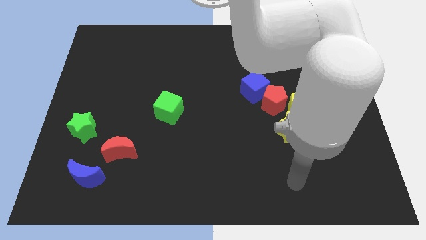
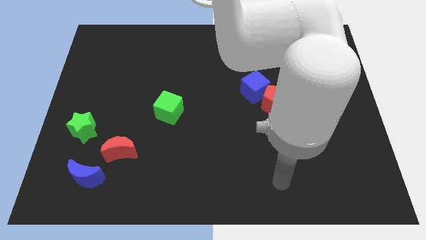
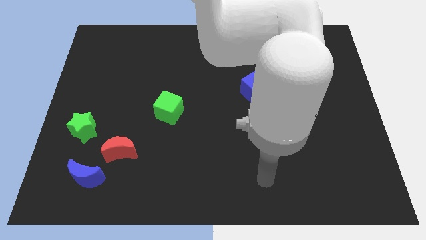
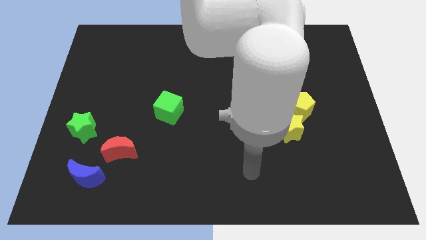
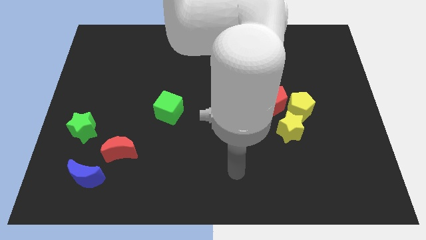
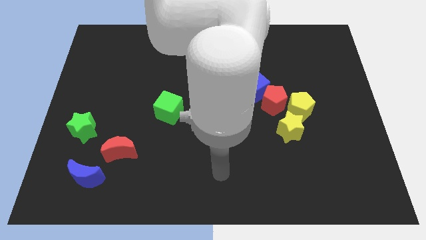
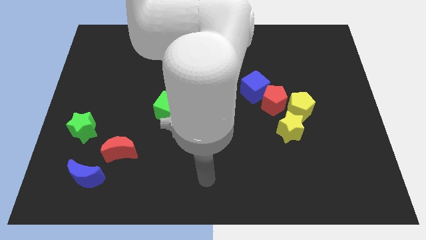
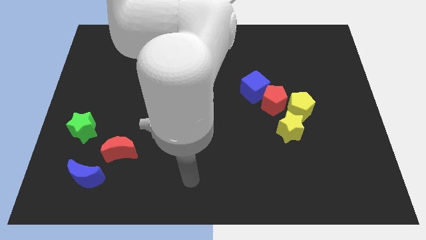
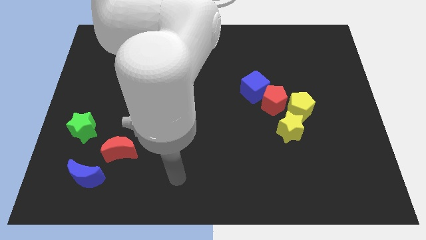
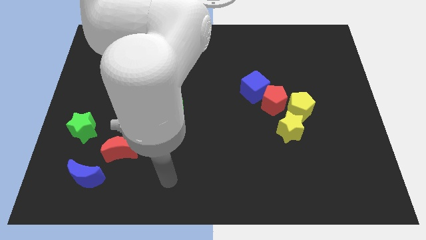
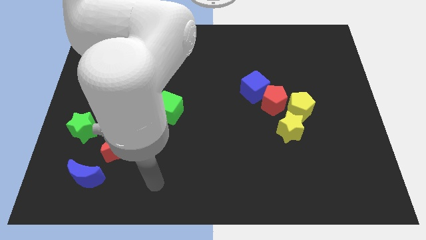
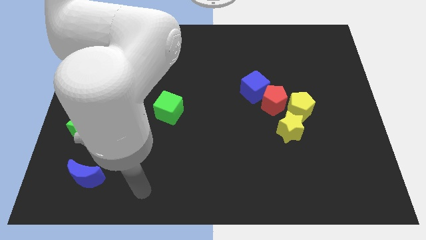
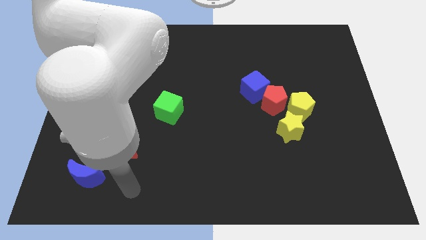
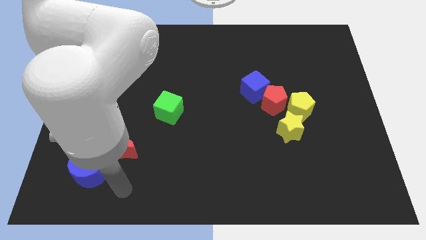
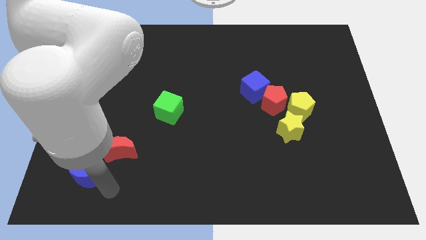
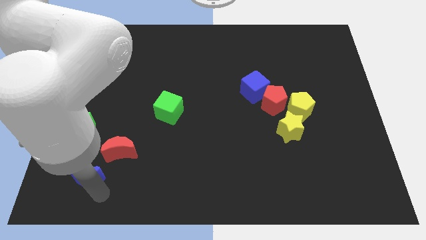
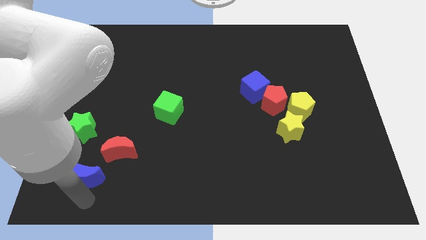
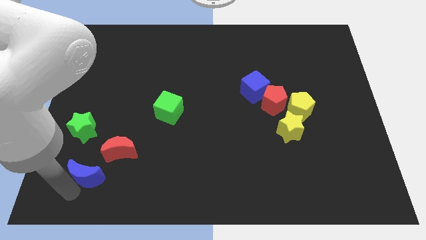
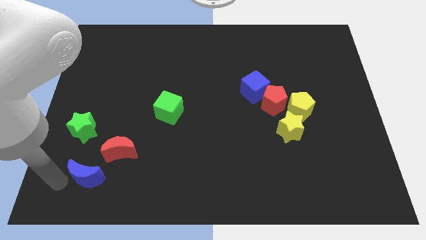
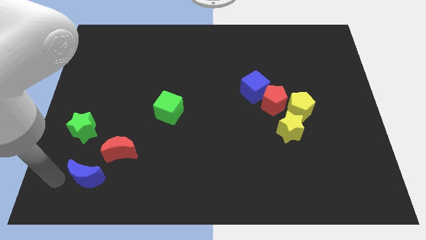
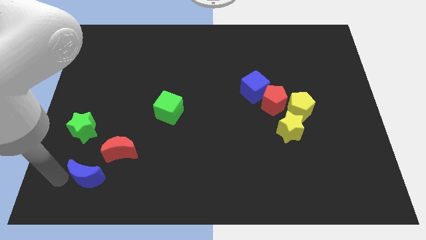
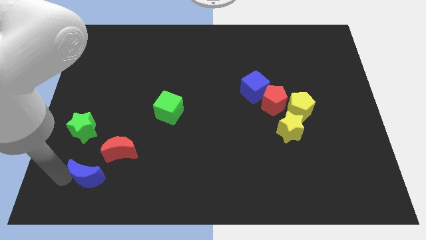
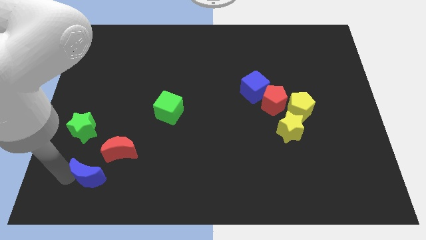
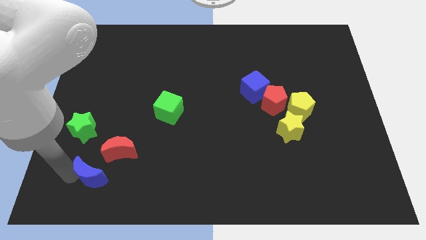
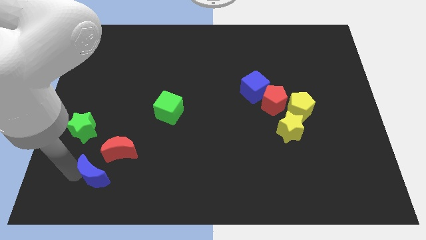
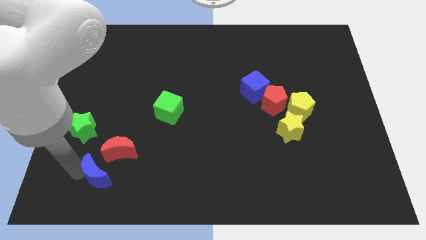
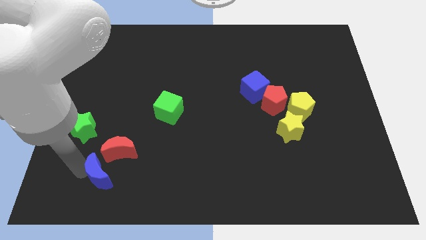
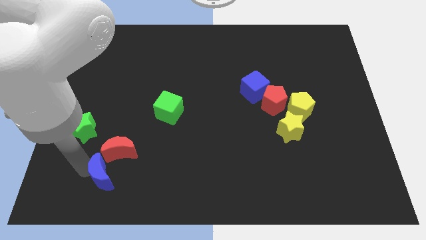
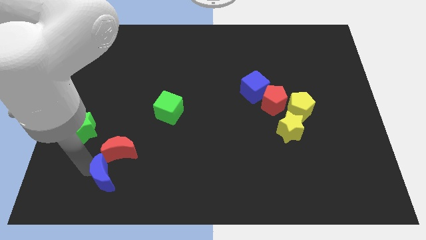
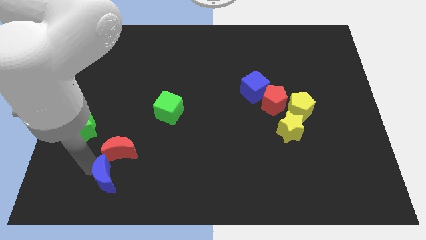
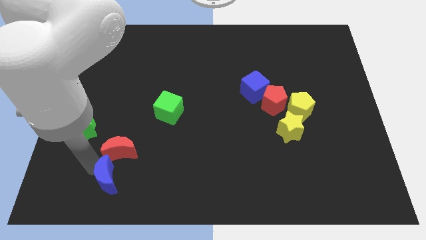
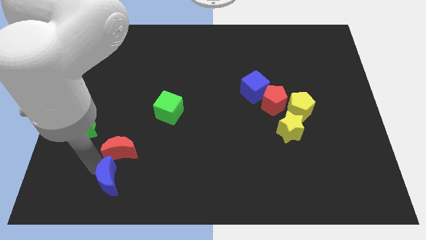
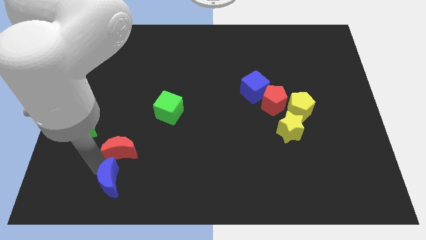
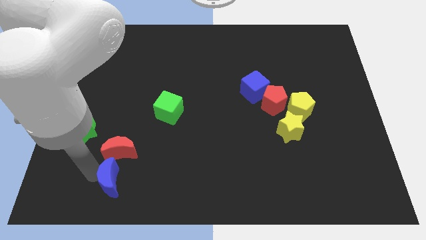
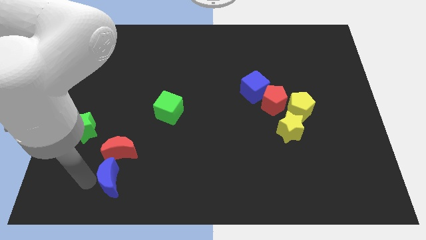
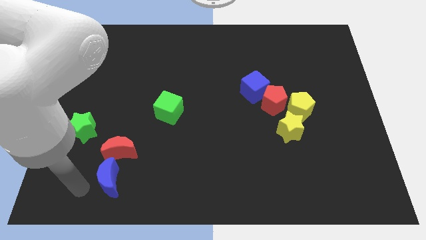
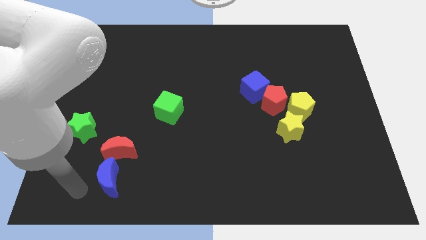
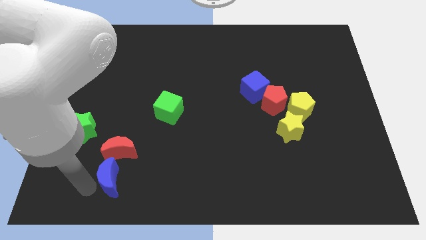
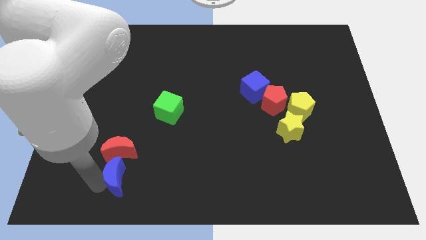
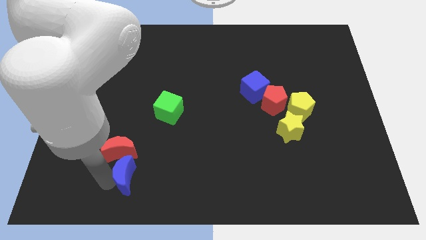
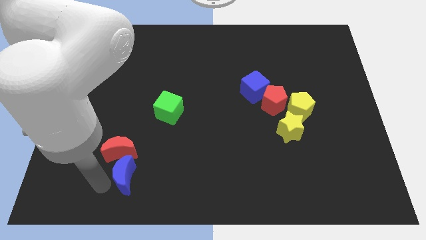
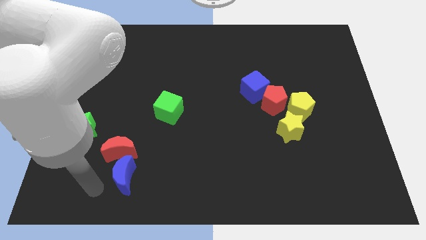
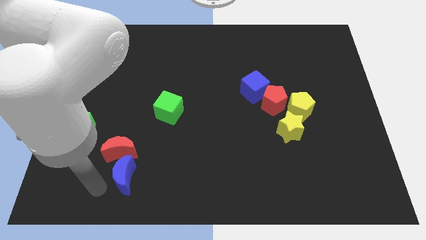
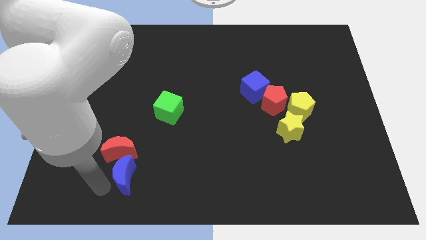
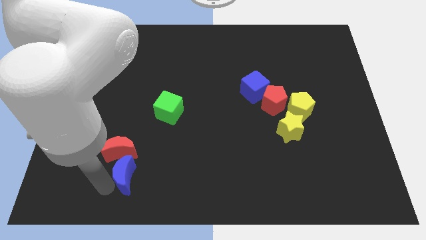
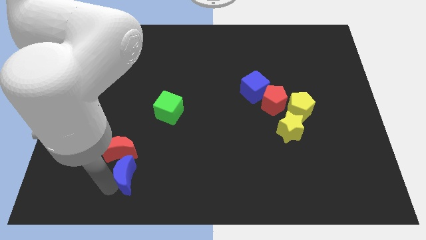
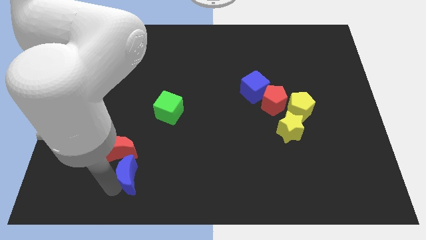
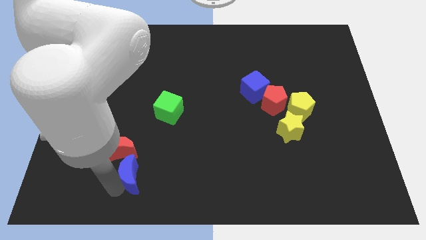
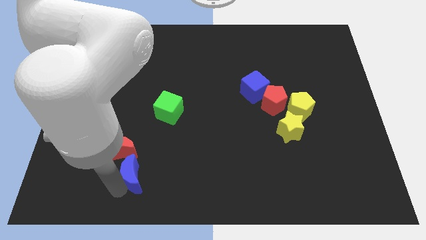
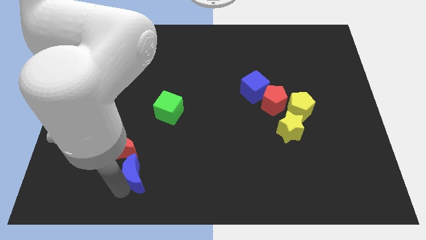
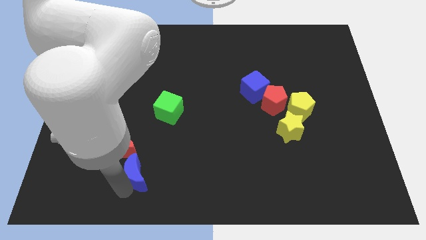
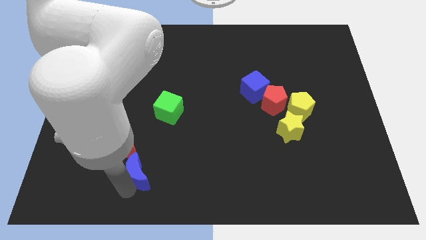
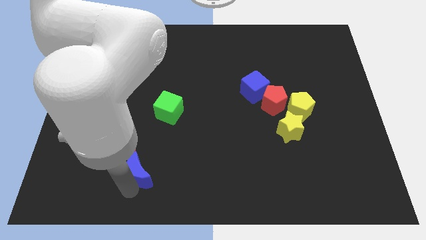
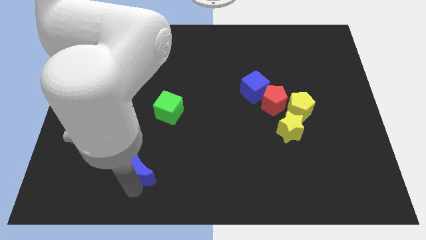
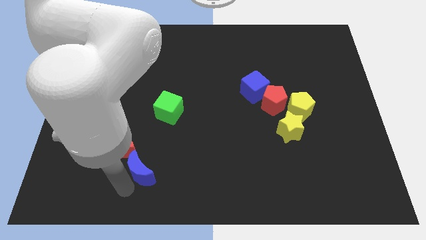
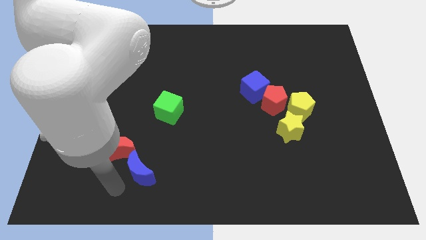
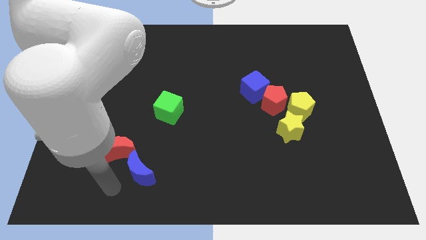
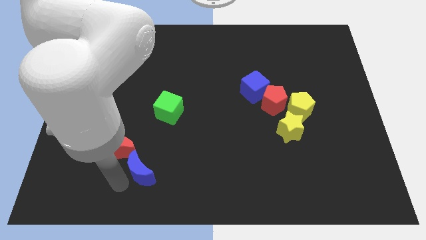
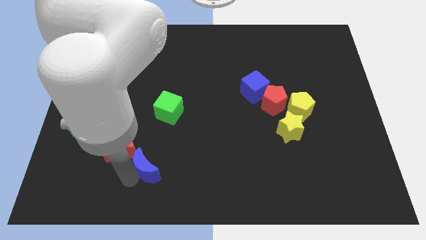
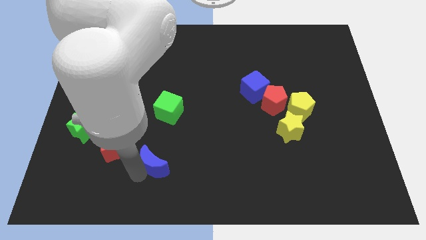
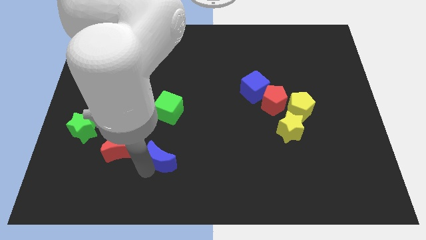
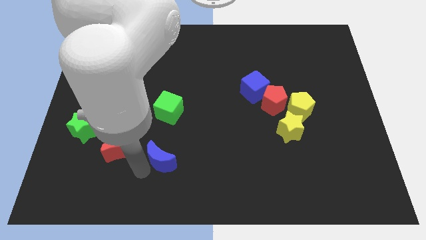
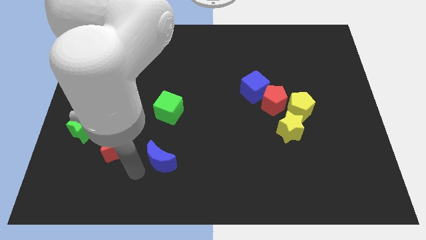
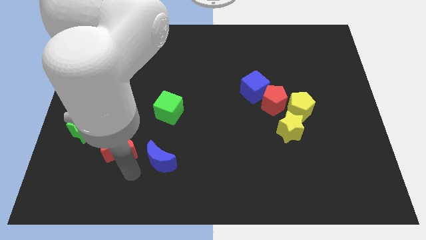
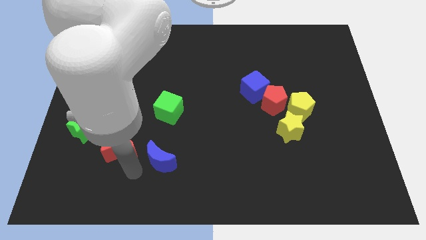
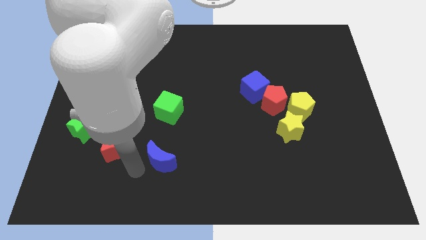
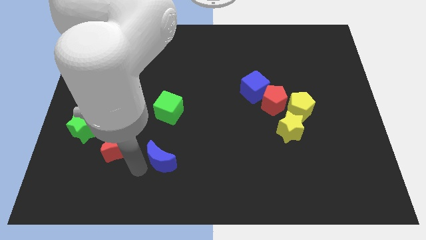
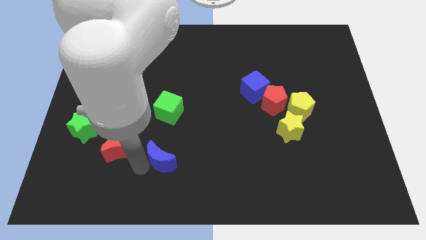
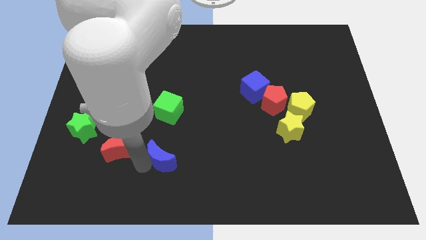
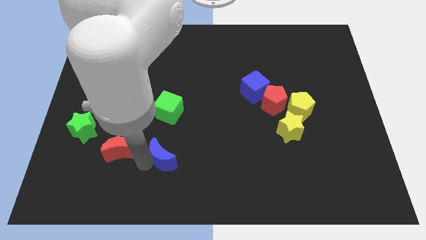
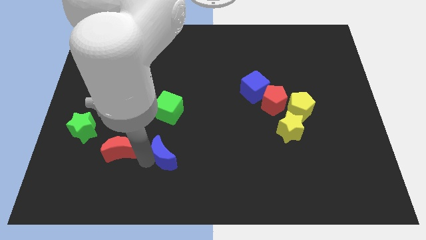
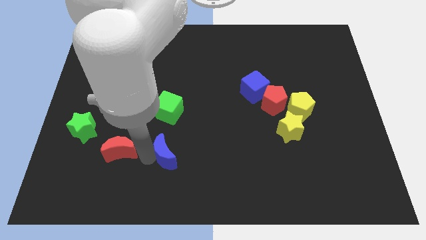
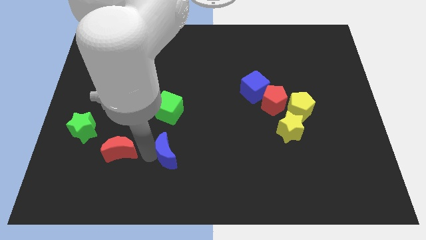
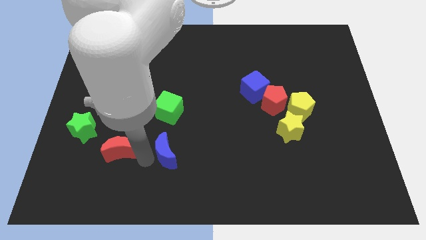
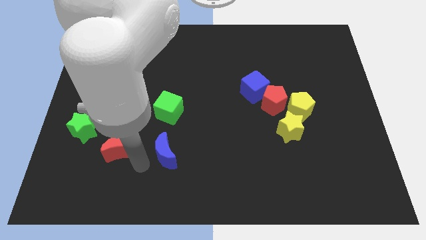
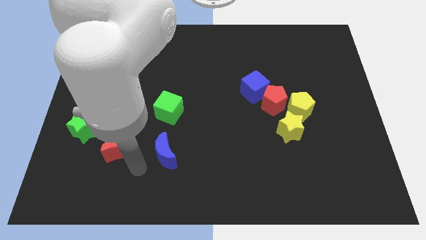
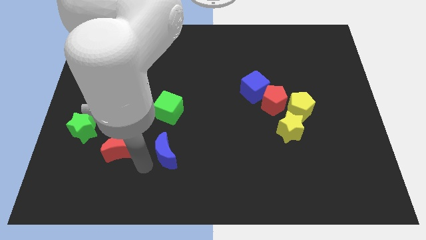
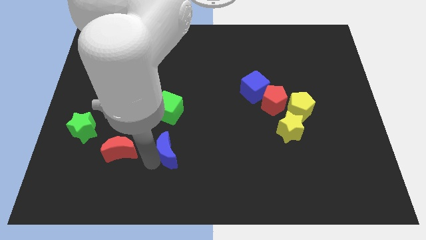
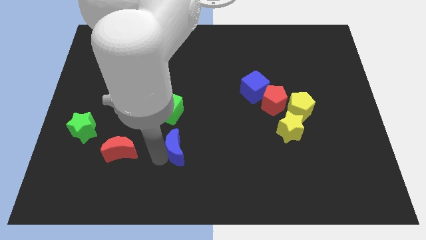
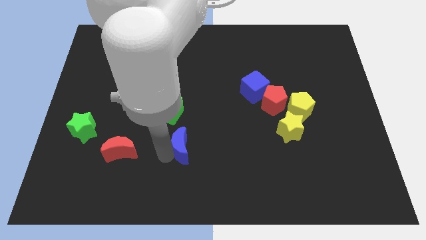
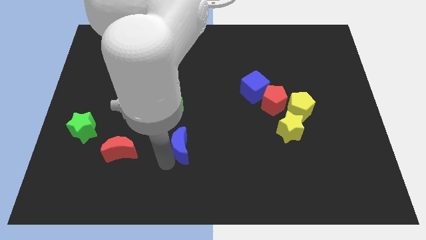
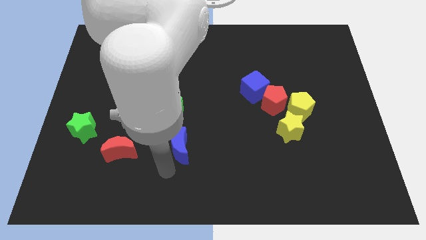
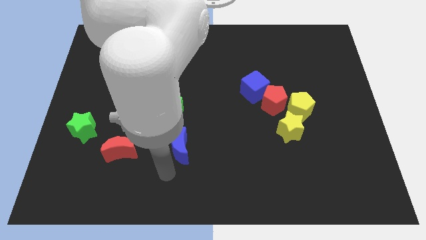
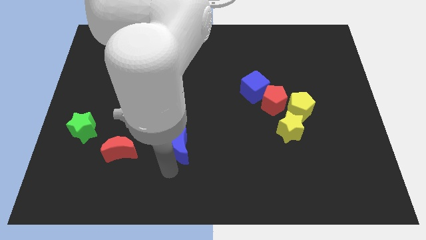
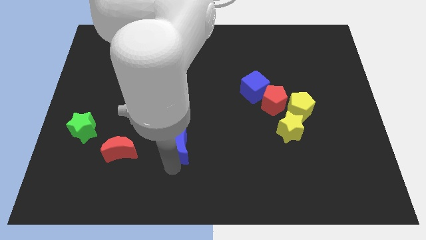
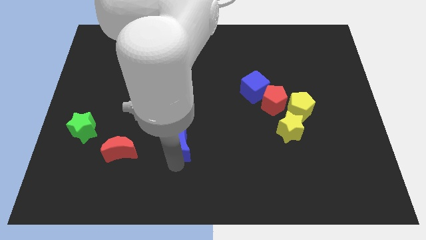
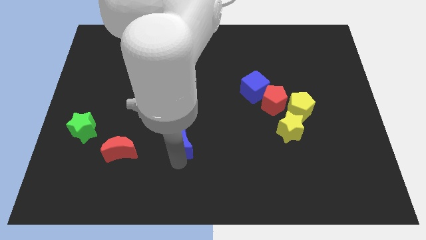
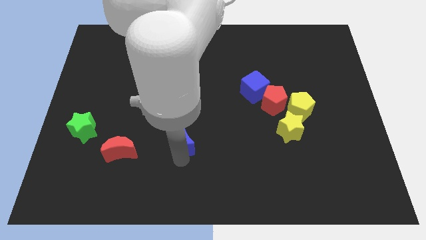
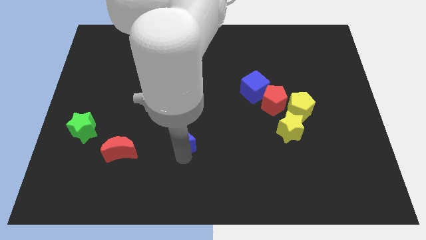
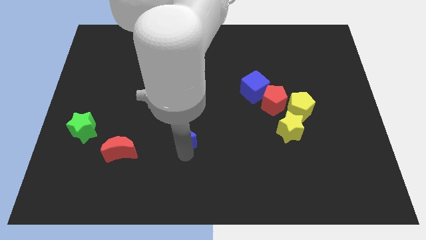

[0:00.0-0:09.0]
slide the blue moon to the middle
